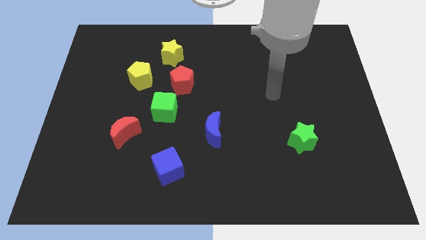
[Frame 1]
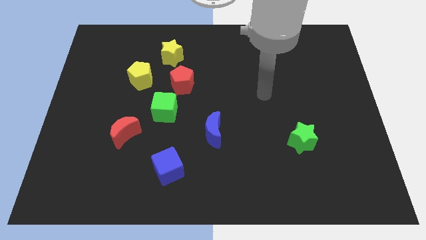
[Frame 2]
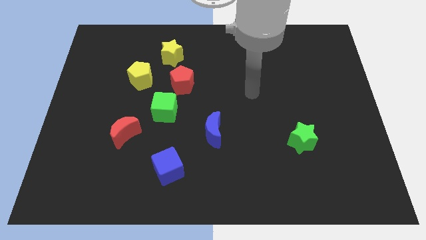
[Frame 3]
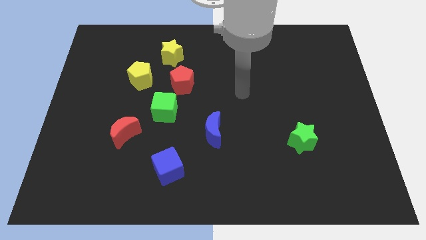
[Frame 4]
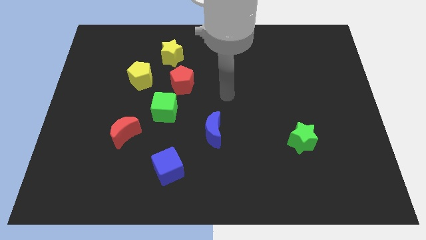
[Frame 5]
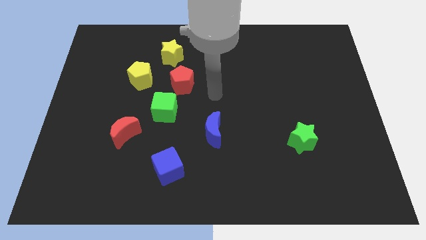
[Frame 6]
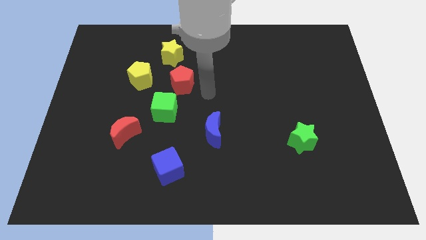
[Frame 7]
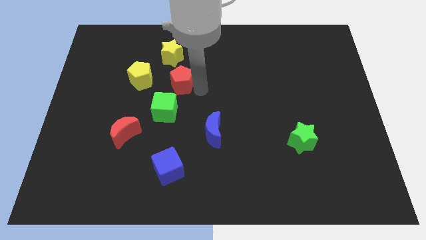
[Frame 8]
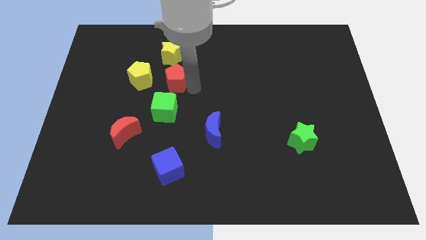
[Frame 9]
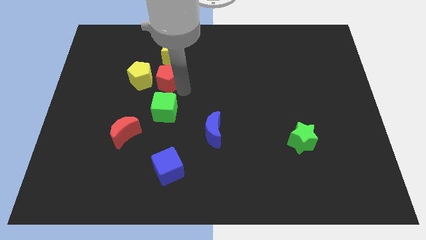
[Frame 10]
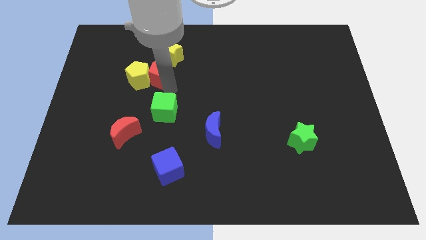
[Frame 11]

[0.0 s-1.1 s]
move the green cube away from the red pentagon

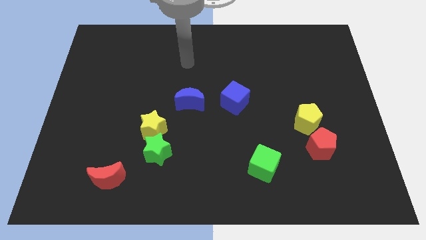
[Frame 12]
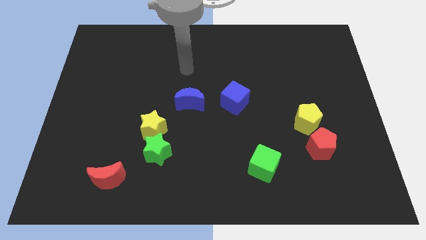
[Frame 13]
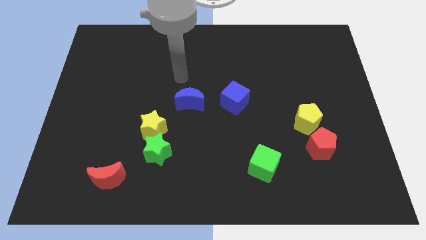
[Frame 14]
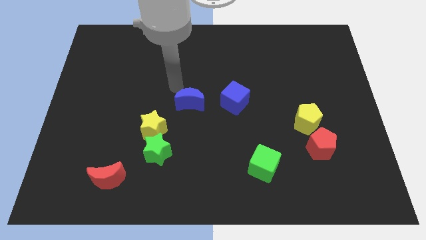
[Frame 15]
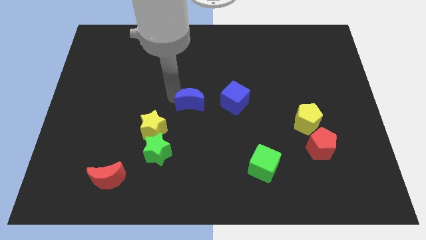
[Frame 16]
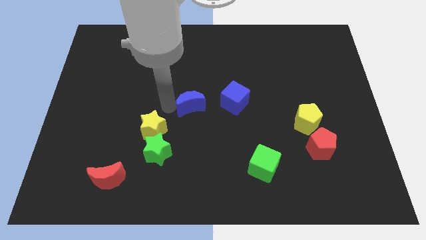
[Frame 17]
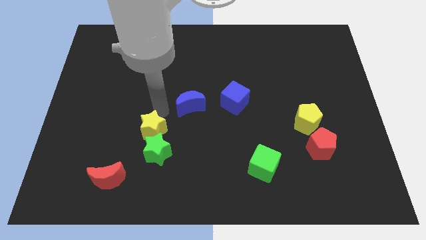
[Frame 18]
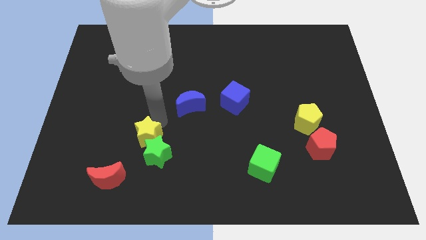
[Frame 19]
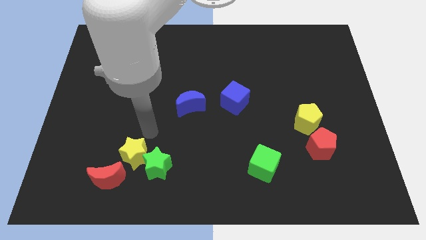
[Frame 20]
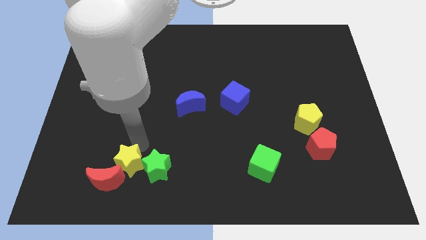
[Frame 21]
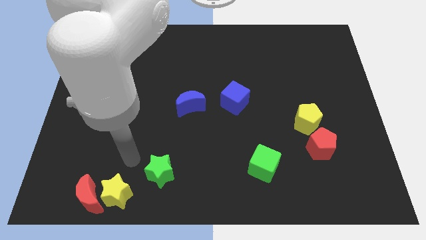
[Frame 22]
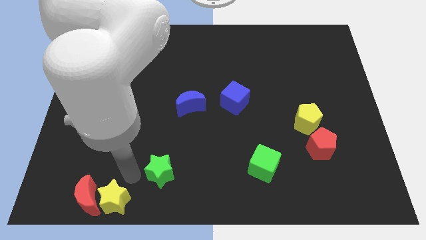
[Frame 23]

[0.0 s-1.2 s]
move the green star away from the yellow star

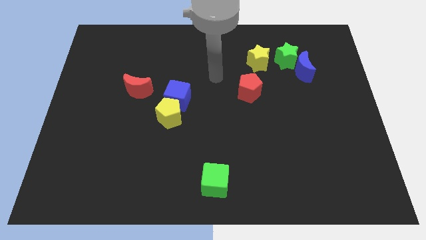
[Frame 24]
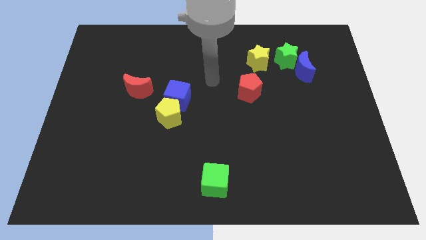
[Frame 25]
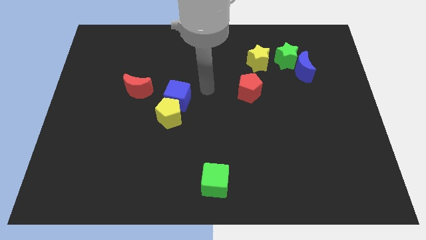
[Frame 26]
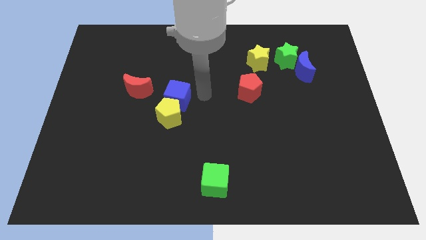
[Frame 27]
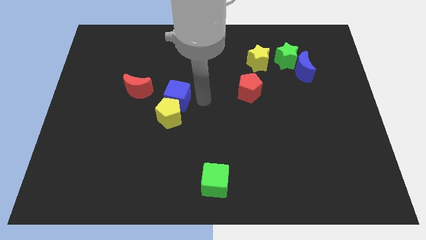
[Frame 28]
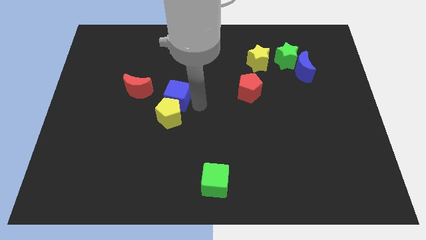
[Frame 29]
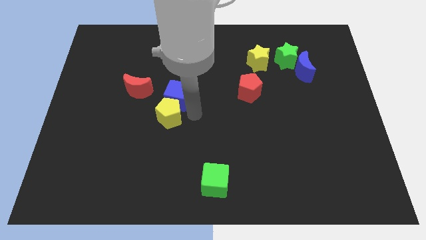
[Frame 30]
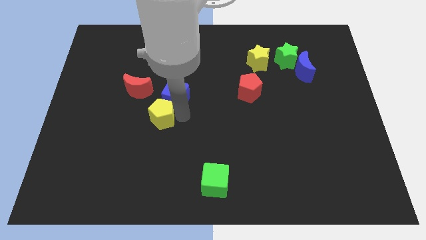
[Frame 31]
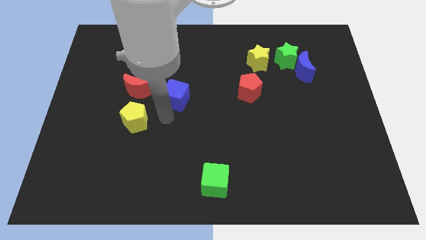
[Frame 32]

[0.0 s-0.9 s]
move the blue cube away from the yellow pentagon

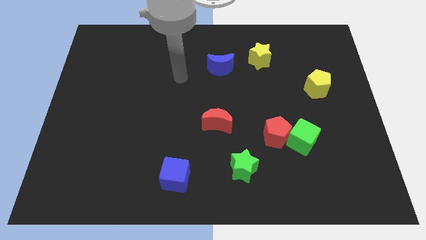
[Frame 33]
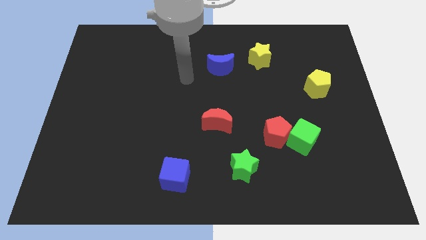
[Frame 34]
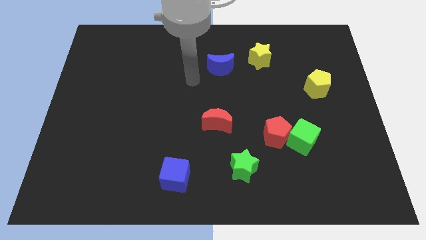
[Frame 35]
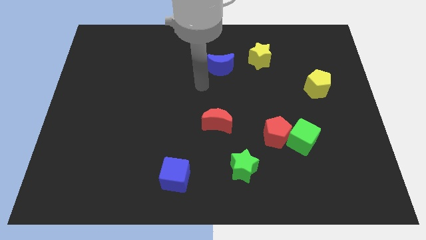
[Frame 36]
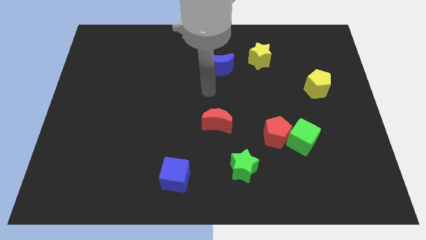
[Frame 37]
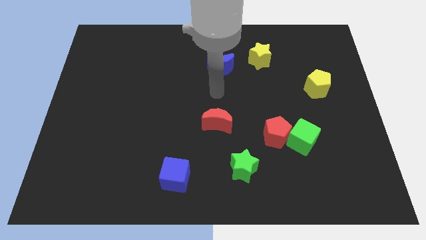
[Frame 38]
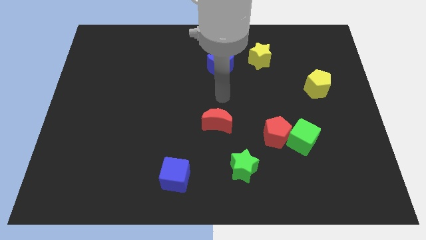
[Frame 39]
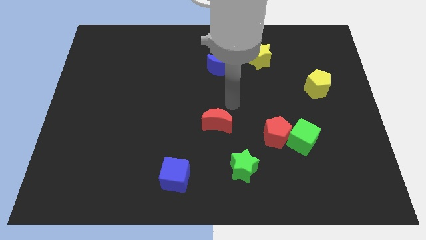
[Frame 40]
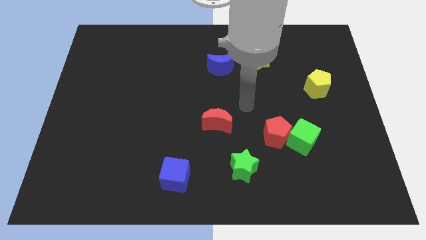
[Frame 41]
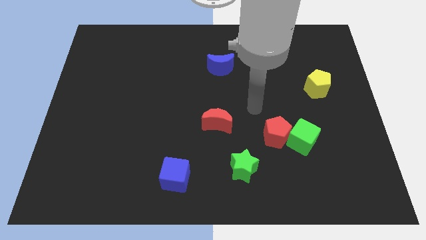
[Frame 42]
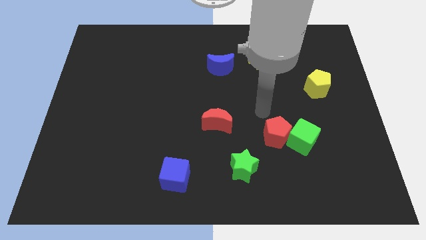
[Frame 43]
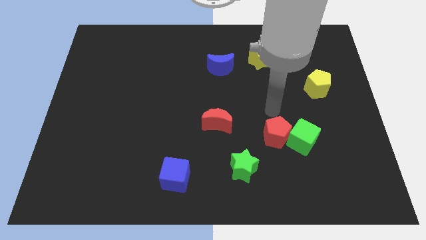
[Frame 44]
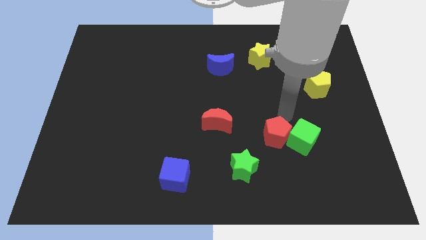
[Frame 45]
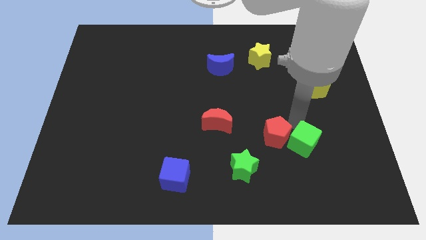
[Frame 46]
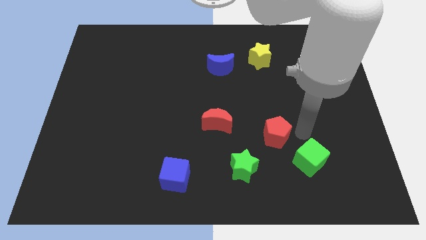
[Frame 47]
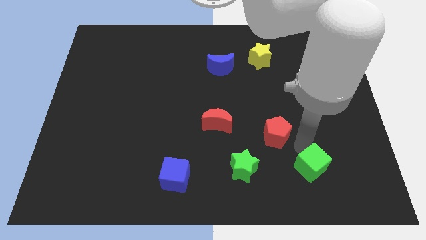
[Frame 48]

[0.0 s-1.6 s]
separate the red pentagon from the green cube

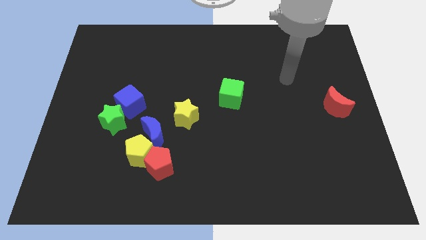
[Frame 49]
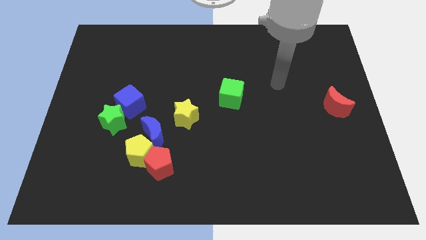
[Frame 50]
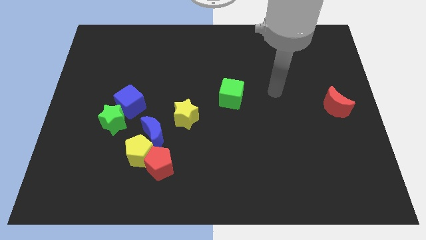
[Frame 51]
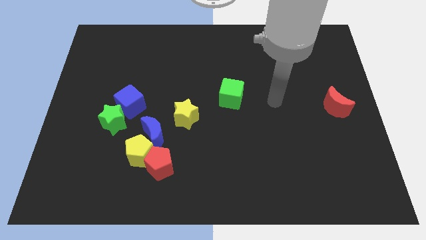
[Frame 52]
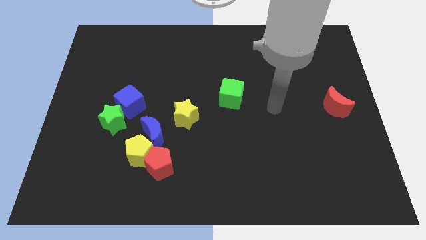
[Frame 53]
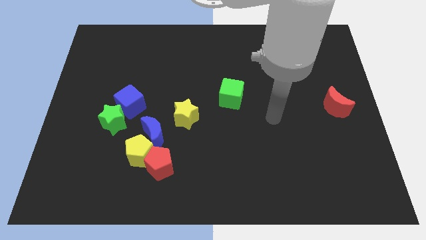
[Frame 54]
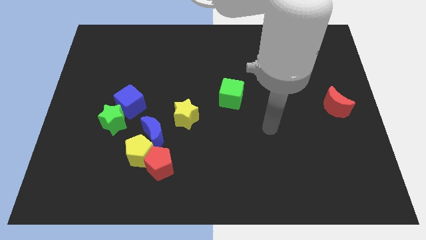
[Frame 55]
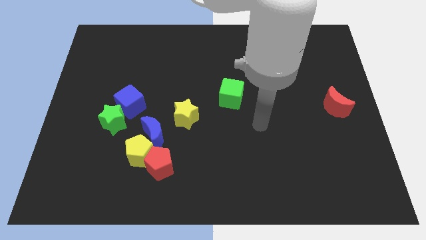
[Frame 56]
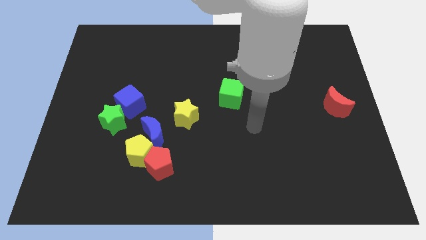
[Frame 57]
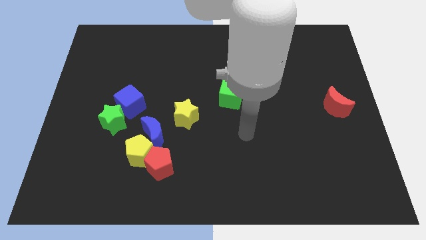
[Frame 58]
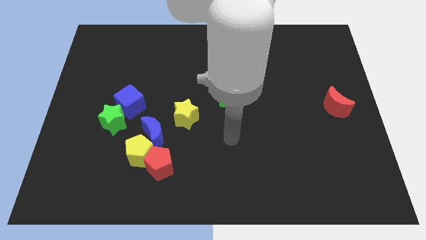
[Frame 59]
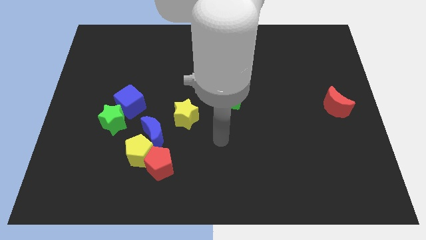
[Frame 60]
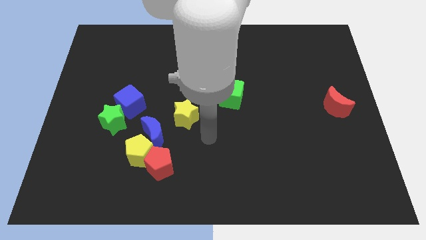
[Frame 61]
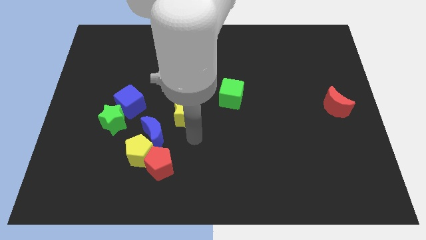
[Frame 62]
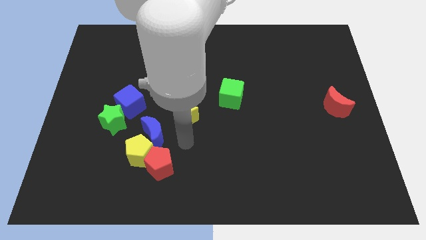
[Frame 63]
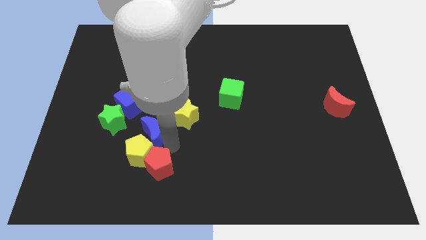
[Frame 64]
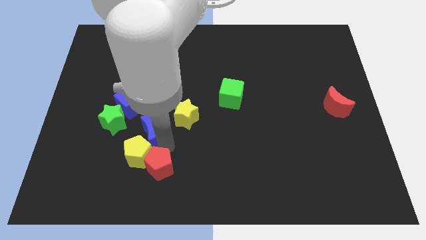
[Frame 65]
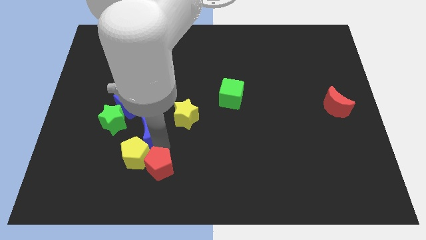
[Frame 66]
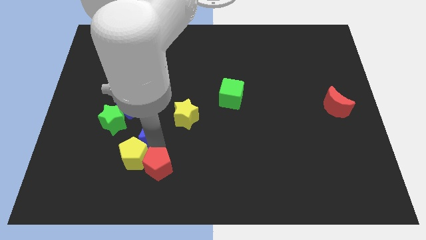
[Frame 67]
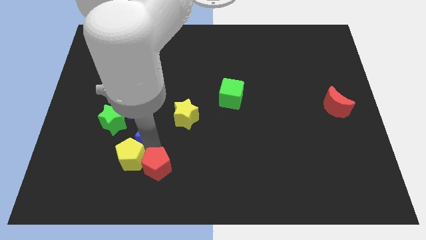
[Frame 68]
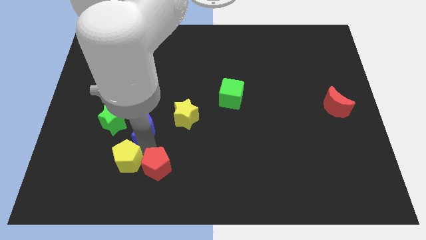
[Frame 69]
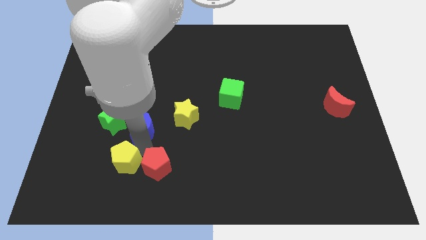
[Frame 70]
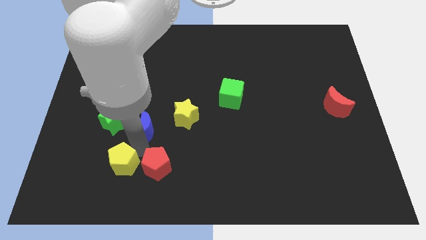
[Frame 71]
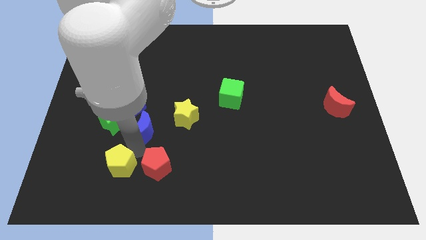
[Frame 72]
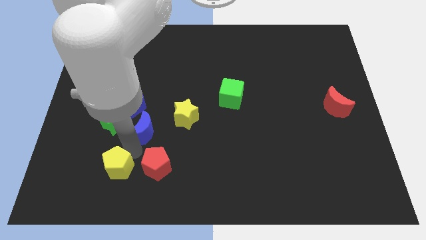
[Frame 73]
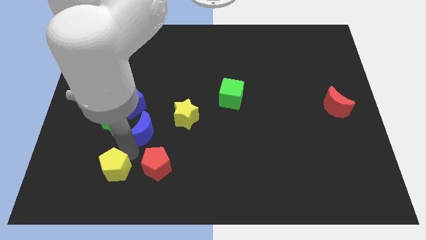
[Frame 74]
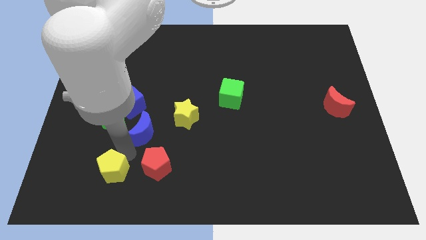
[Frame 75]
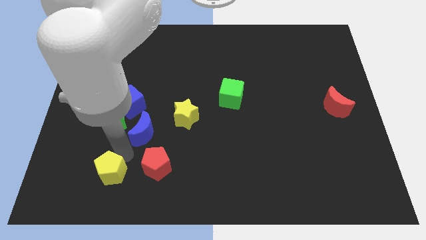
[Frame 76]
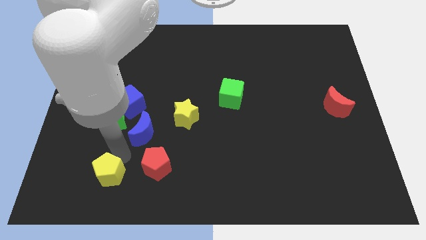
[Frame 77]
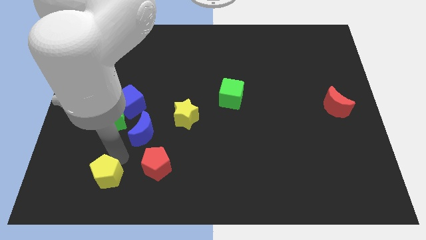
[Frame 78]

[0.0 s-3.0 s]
separate the yellow pentagon from the red pentagon and blue moon

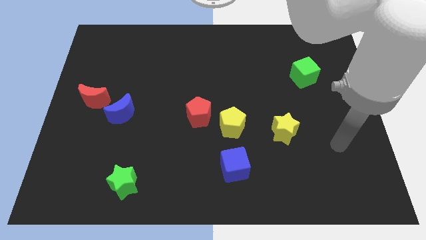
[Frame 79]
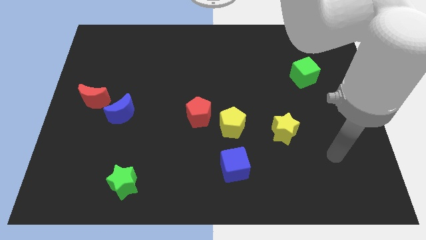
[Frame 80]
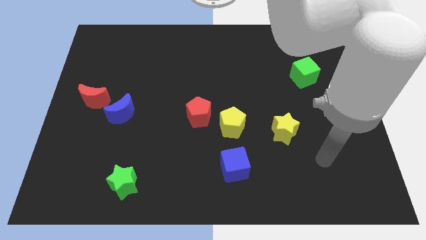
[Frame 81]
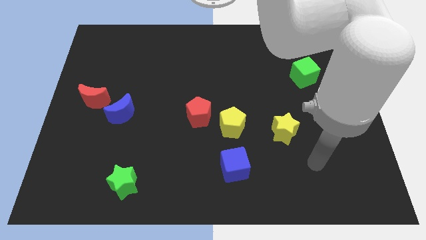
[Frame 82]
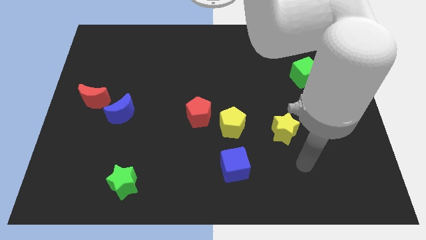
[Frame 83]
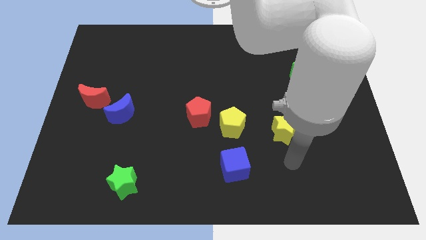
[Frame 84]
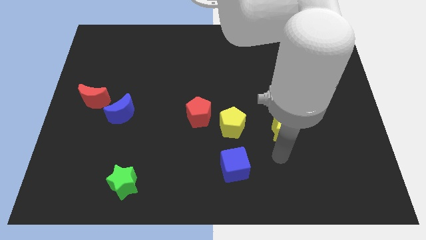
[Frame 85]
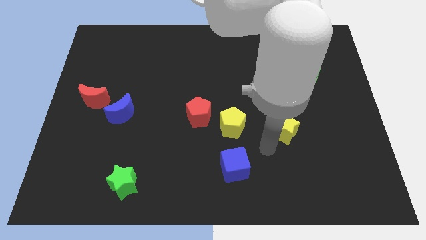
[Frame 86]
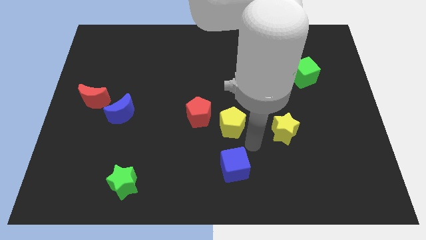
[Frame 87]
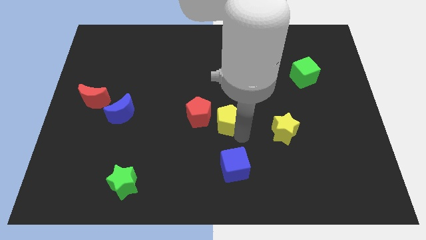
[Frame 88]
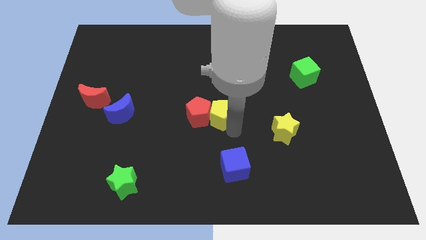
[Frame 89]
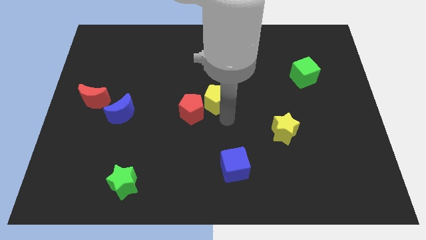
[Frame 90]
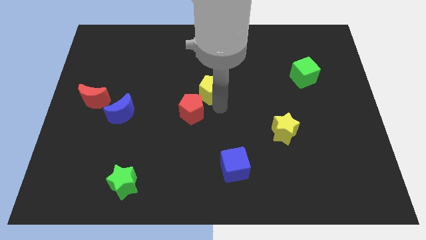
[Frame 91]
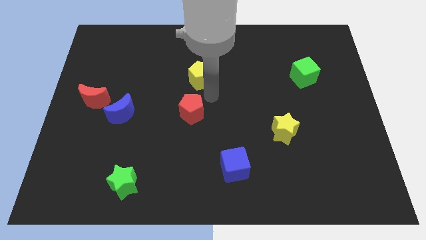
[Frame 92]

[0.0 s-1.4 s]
pull the red pentagon apart from the yellow pentagon
